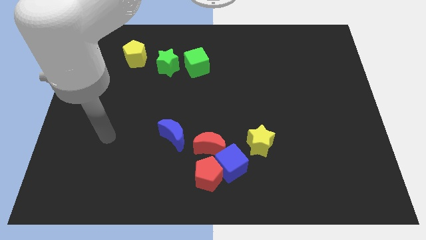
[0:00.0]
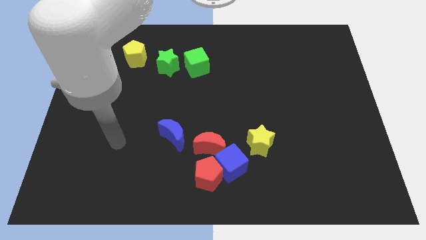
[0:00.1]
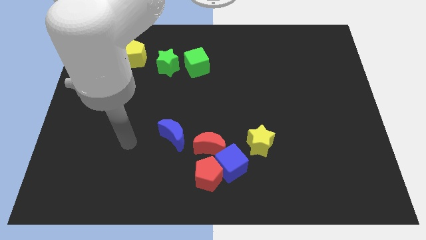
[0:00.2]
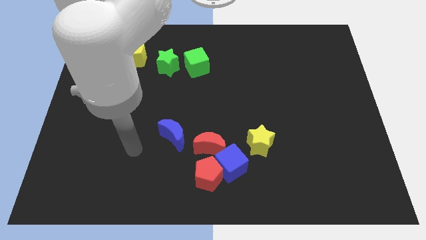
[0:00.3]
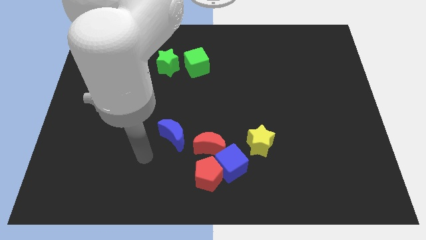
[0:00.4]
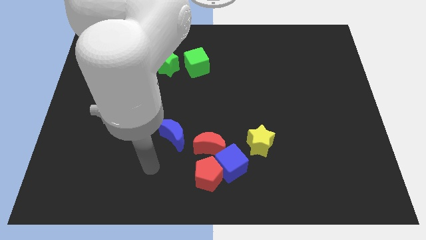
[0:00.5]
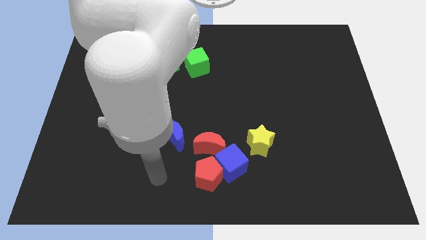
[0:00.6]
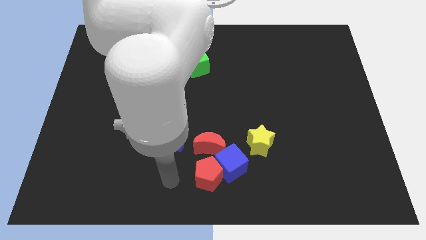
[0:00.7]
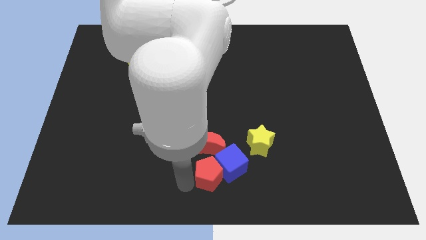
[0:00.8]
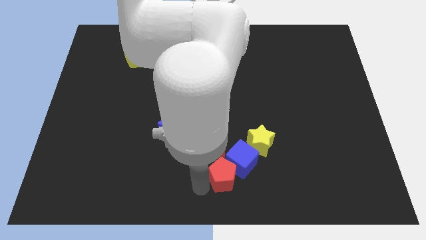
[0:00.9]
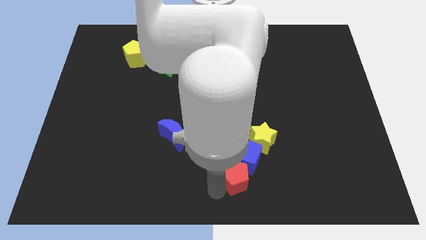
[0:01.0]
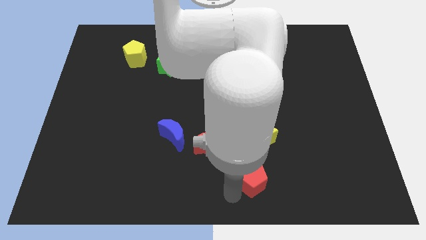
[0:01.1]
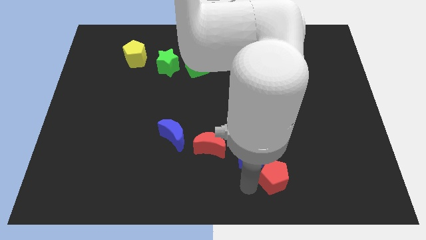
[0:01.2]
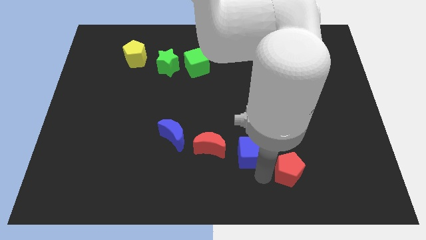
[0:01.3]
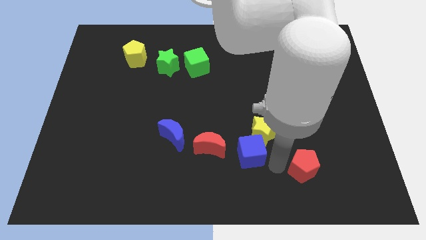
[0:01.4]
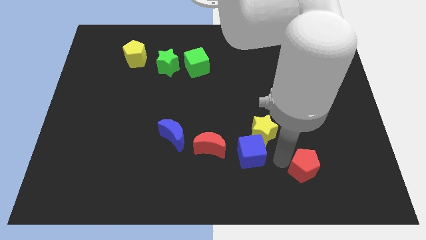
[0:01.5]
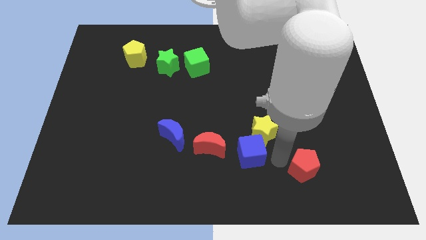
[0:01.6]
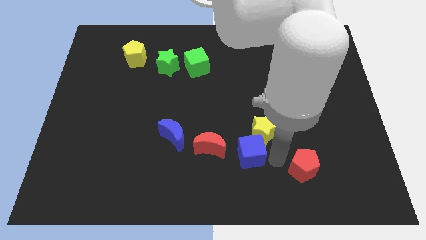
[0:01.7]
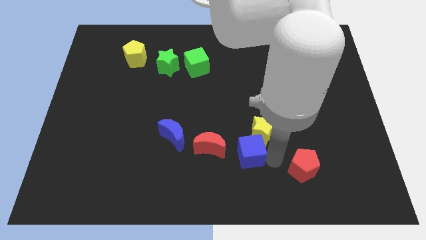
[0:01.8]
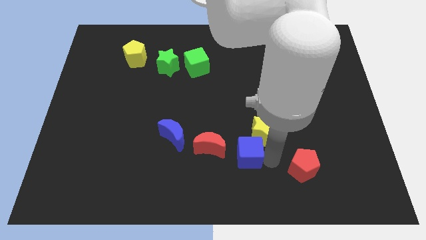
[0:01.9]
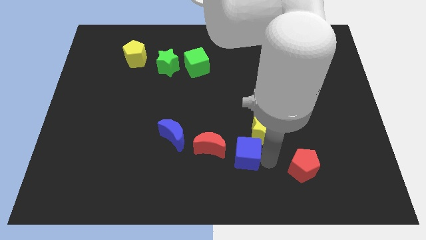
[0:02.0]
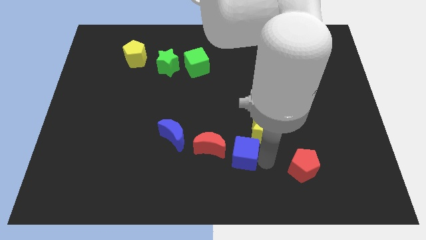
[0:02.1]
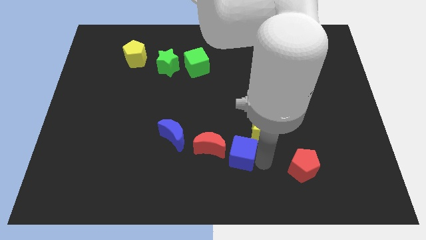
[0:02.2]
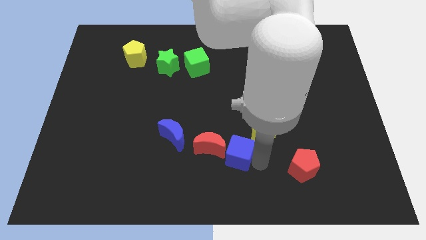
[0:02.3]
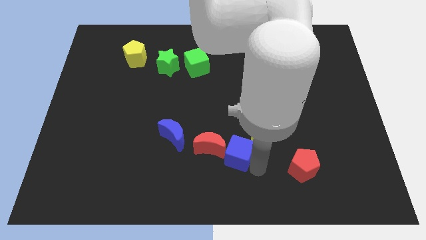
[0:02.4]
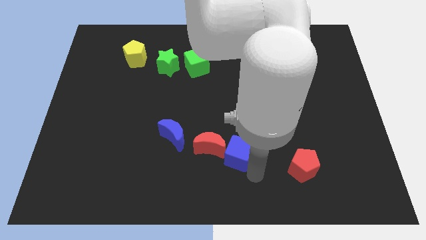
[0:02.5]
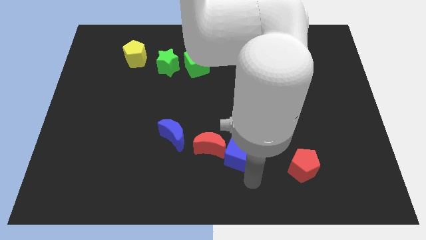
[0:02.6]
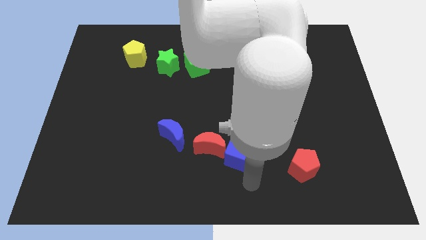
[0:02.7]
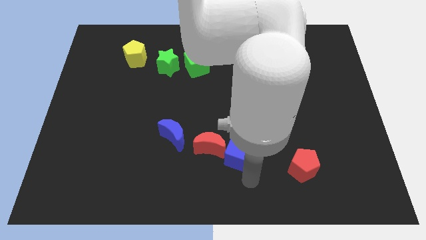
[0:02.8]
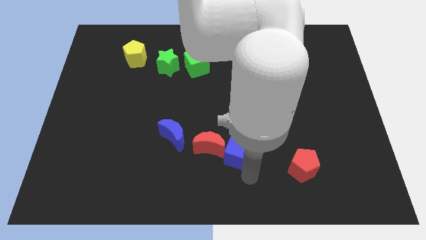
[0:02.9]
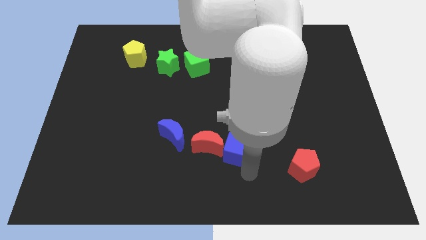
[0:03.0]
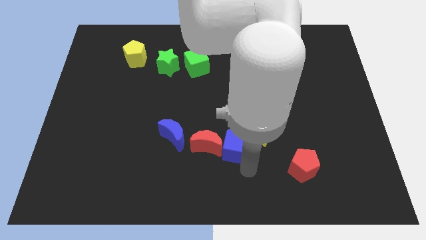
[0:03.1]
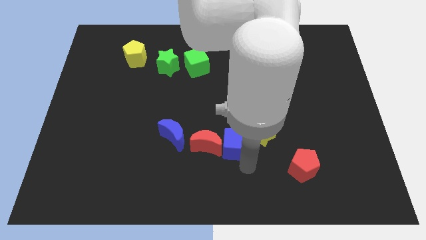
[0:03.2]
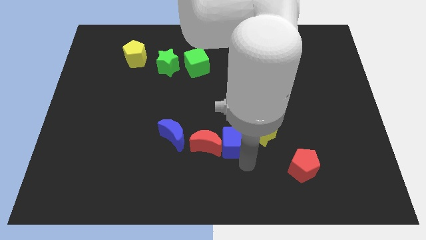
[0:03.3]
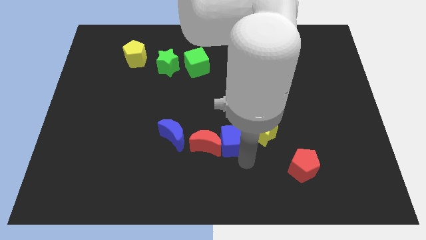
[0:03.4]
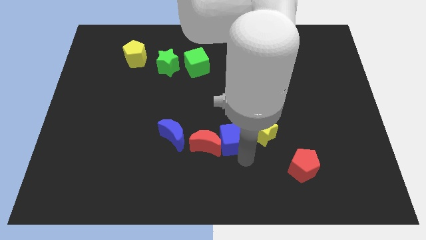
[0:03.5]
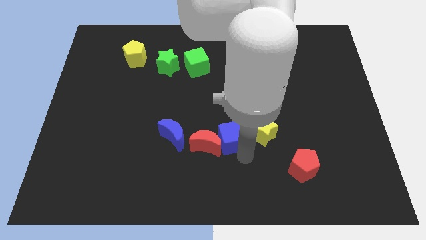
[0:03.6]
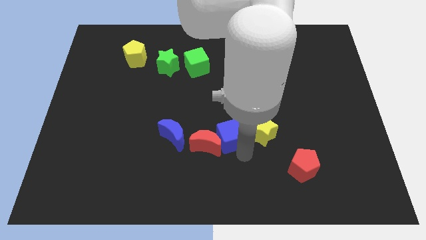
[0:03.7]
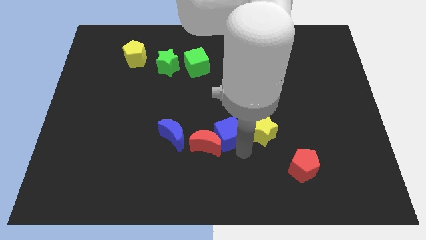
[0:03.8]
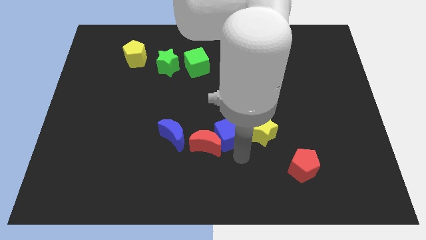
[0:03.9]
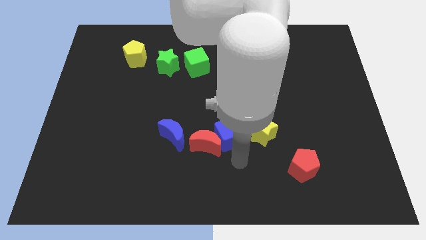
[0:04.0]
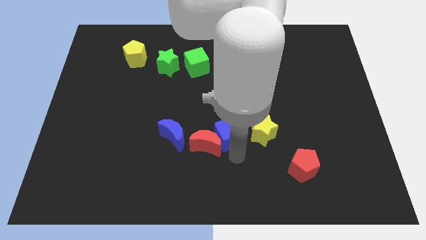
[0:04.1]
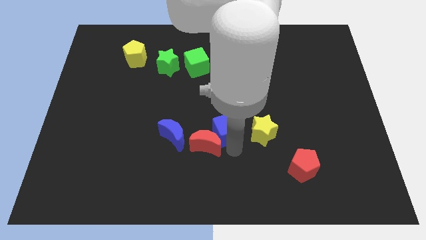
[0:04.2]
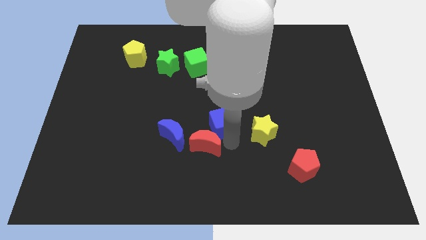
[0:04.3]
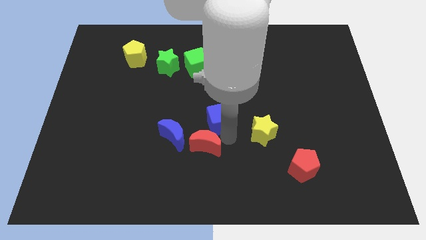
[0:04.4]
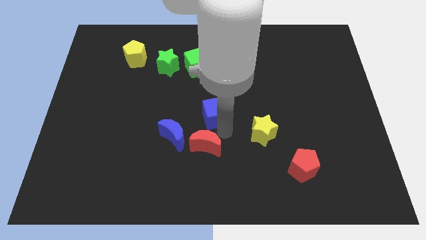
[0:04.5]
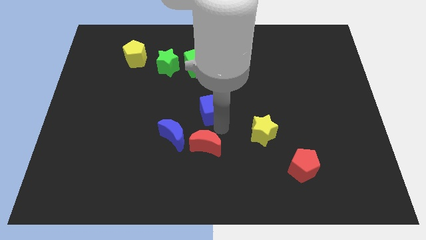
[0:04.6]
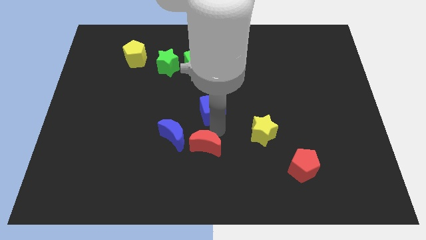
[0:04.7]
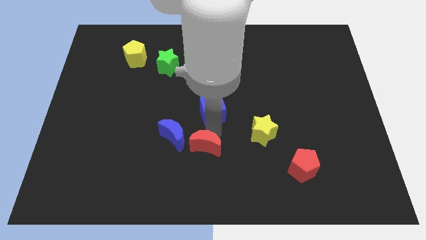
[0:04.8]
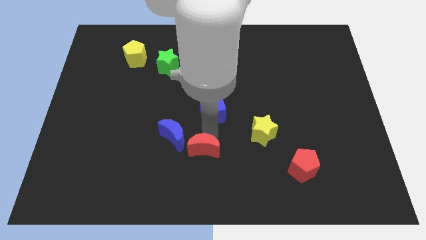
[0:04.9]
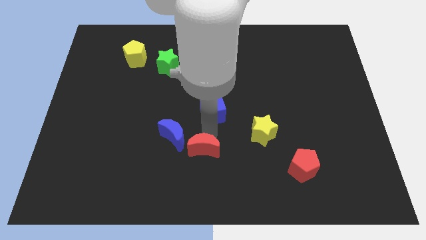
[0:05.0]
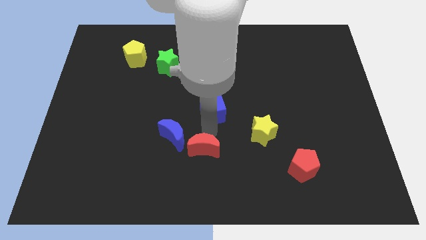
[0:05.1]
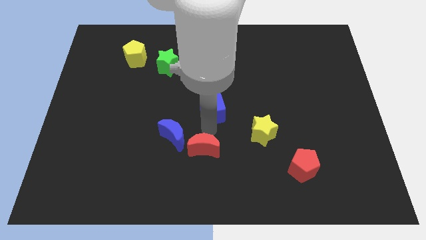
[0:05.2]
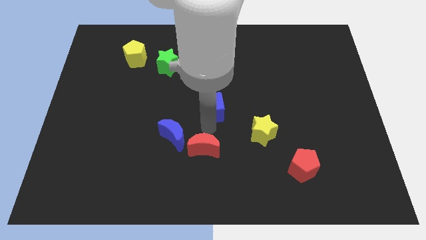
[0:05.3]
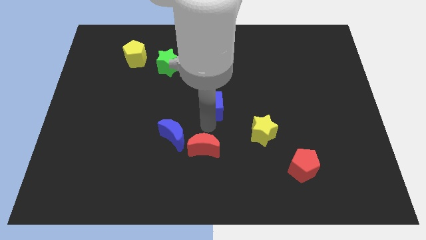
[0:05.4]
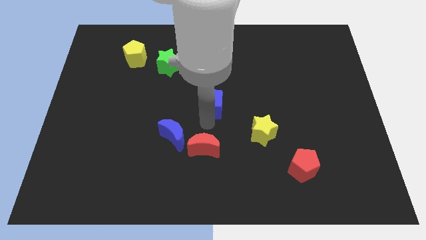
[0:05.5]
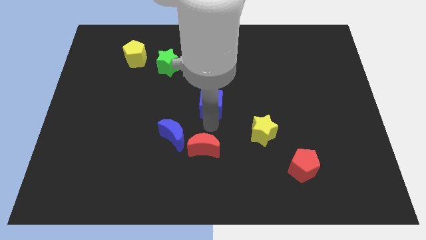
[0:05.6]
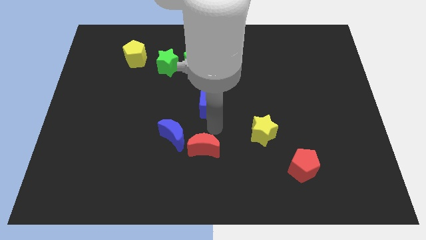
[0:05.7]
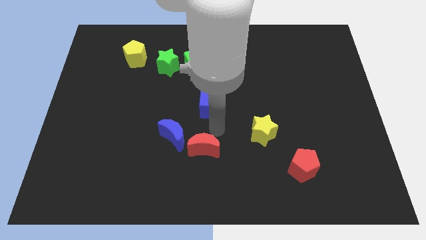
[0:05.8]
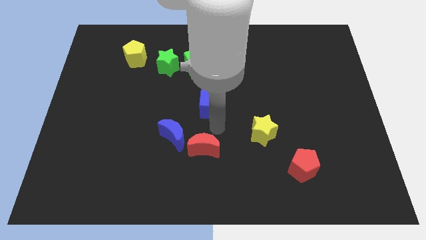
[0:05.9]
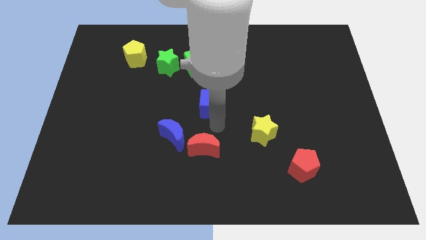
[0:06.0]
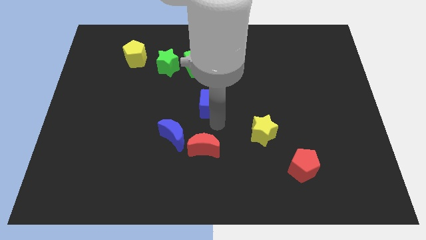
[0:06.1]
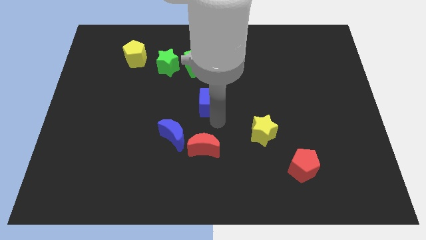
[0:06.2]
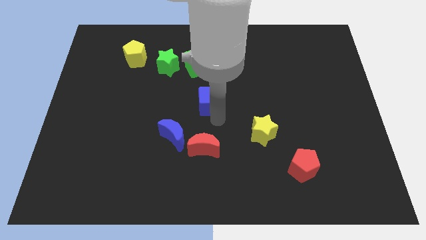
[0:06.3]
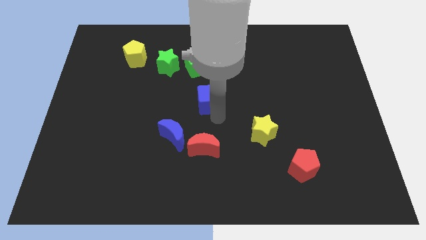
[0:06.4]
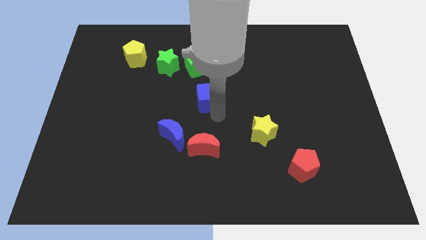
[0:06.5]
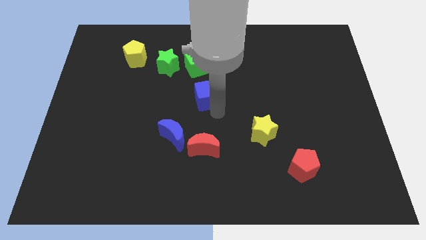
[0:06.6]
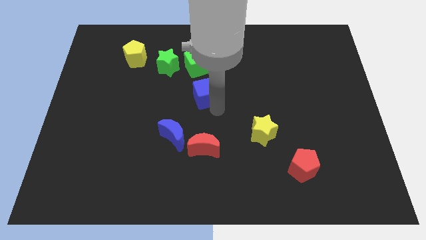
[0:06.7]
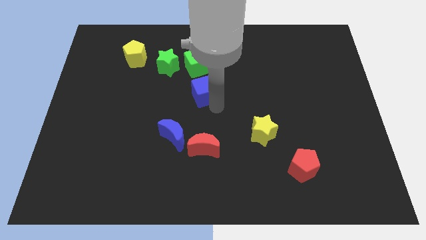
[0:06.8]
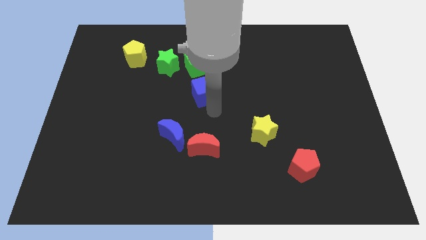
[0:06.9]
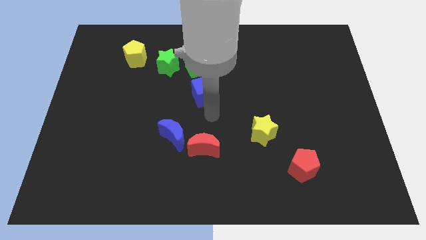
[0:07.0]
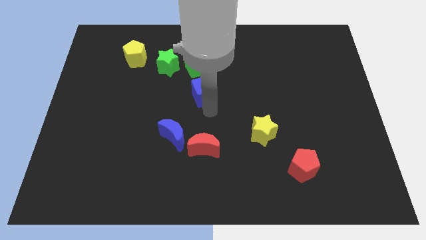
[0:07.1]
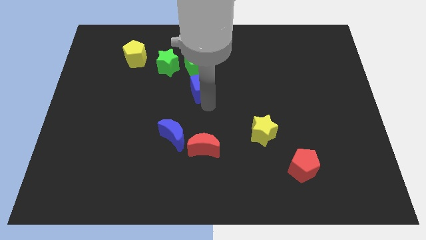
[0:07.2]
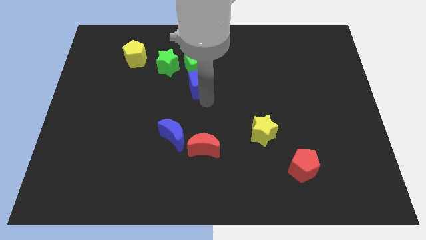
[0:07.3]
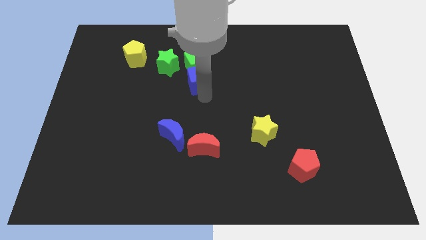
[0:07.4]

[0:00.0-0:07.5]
push the blue cube towards the green cube
